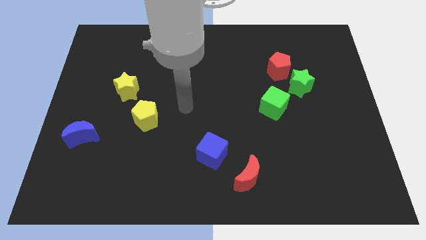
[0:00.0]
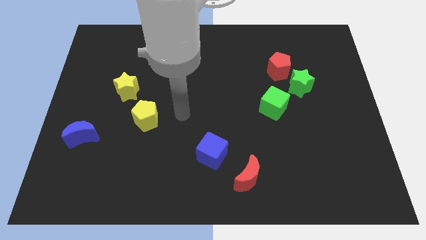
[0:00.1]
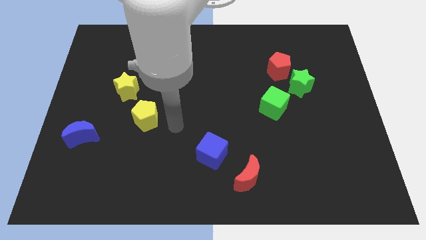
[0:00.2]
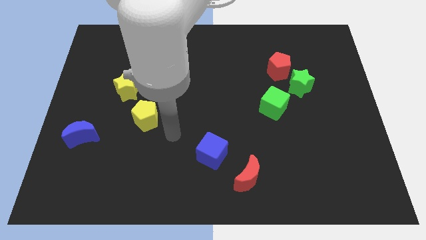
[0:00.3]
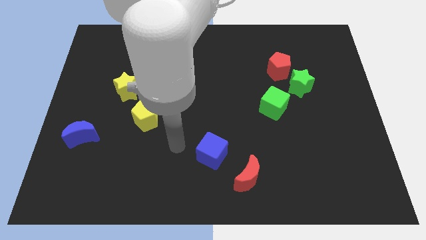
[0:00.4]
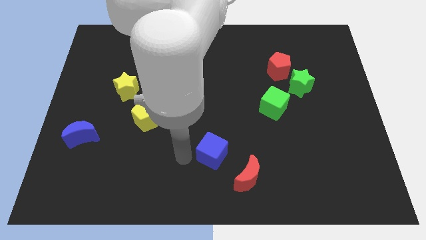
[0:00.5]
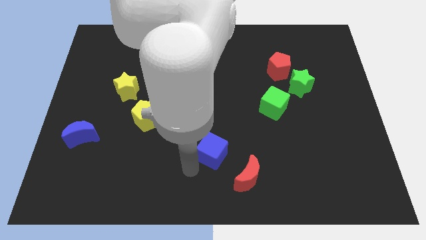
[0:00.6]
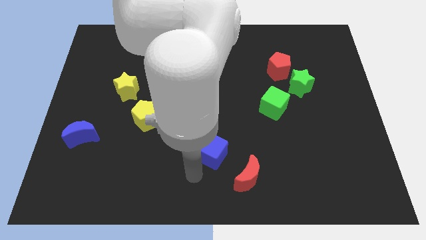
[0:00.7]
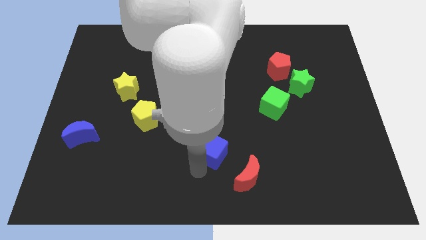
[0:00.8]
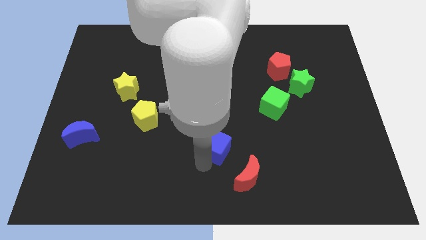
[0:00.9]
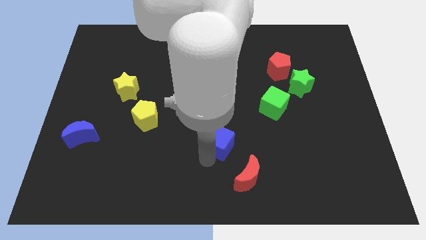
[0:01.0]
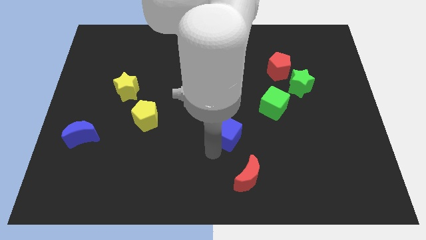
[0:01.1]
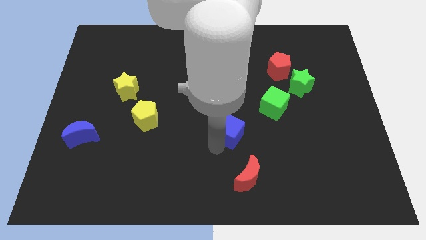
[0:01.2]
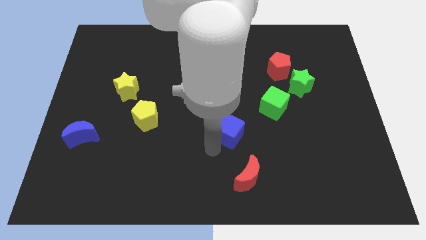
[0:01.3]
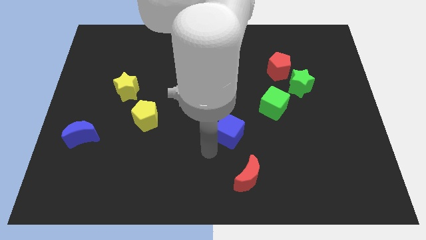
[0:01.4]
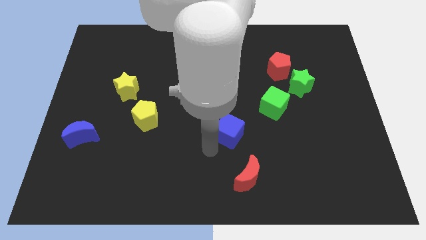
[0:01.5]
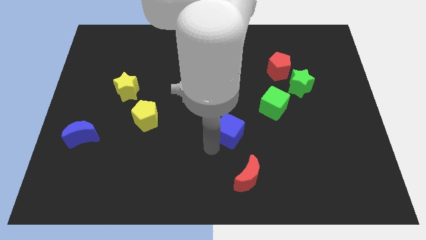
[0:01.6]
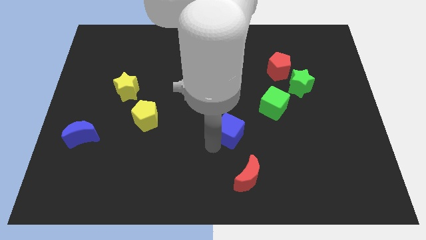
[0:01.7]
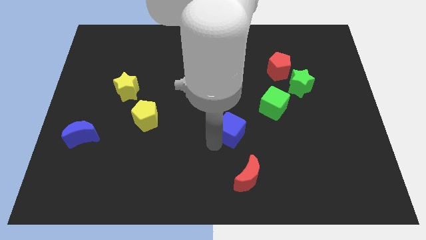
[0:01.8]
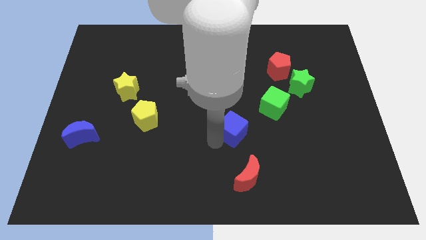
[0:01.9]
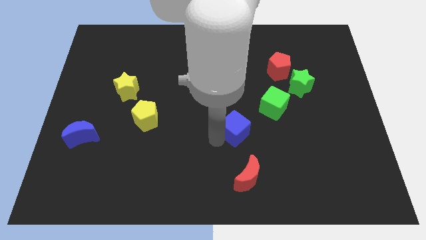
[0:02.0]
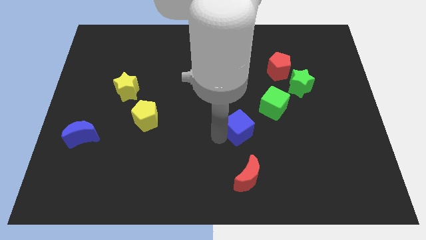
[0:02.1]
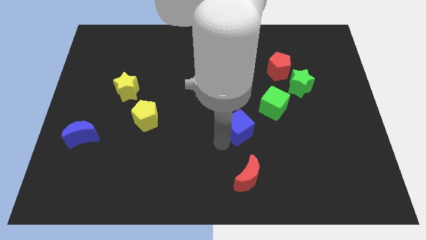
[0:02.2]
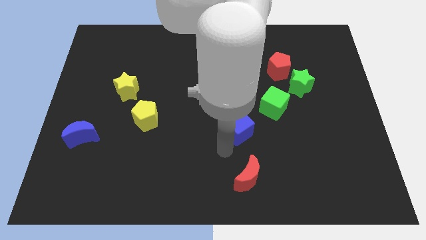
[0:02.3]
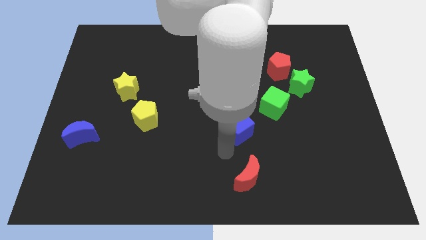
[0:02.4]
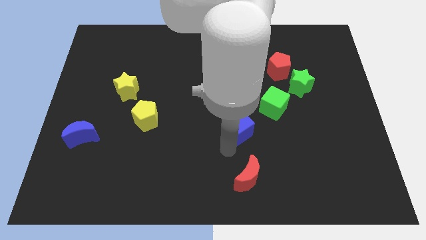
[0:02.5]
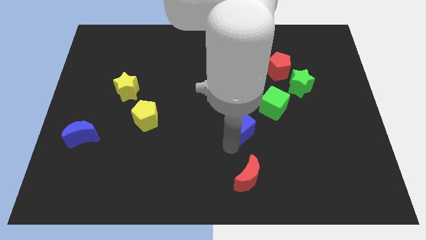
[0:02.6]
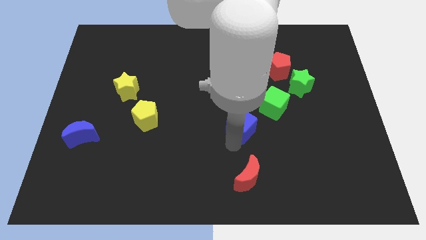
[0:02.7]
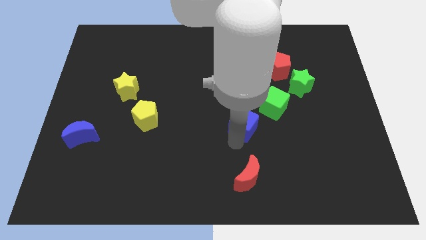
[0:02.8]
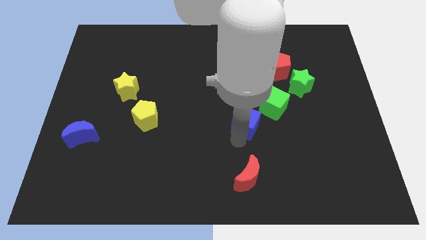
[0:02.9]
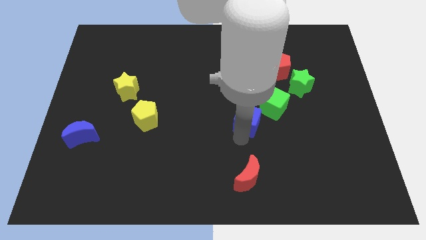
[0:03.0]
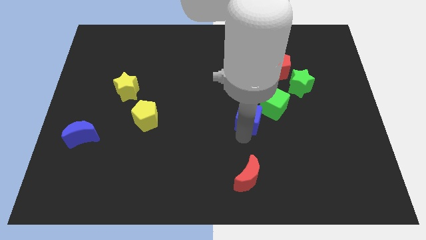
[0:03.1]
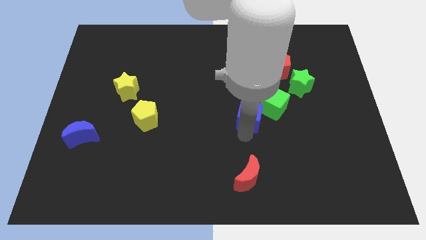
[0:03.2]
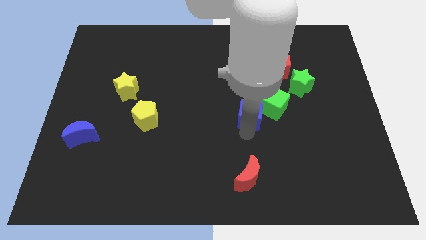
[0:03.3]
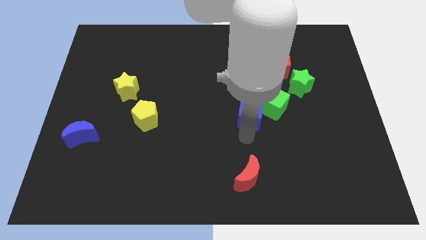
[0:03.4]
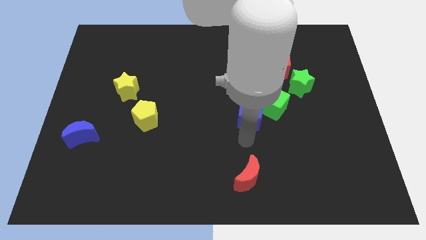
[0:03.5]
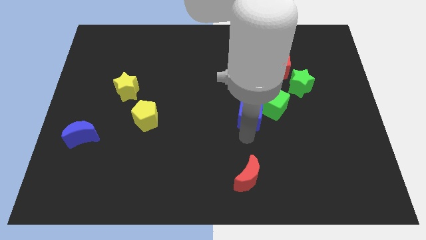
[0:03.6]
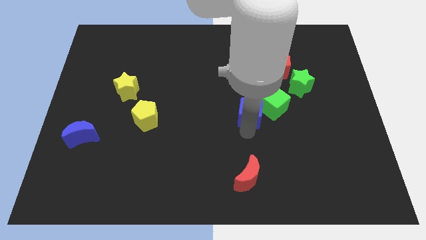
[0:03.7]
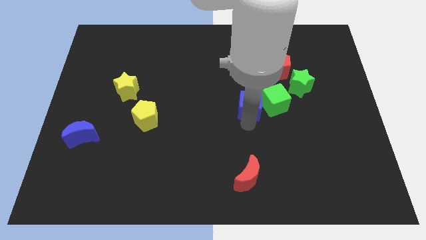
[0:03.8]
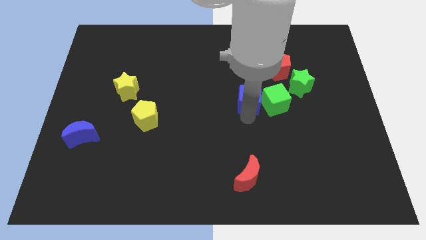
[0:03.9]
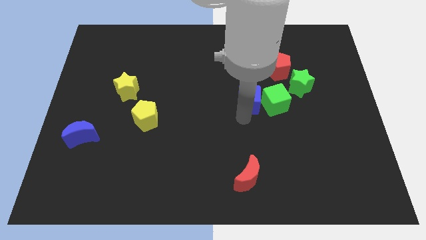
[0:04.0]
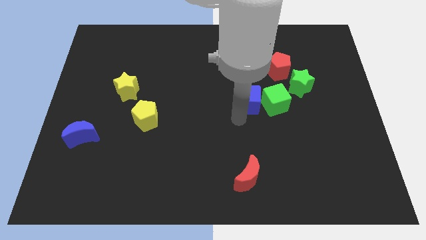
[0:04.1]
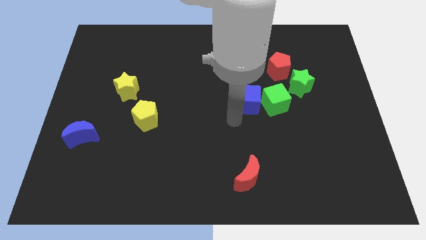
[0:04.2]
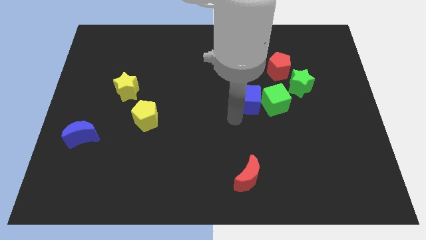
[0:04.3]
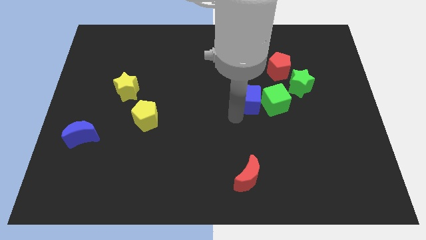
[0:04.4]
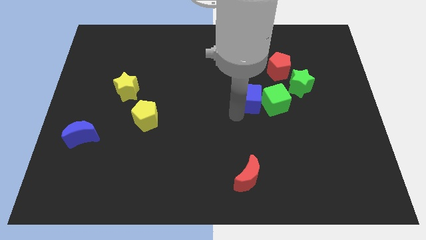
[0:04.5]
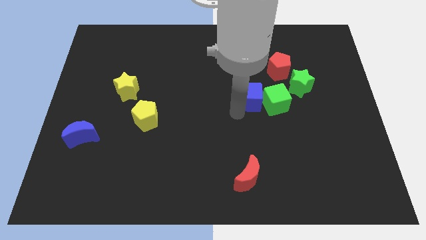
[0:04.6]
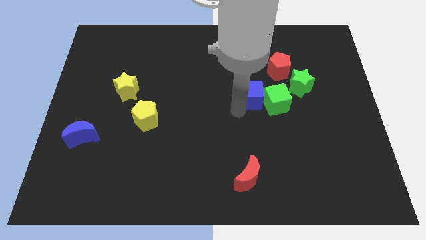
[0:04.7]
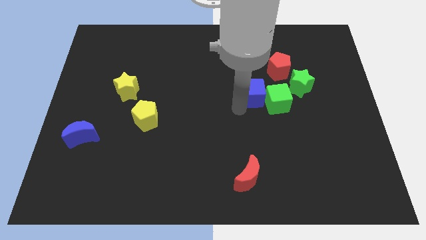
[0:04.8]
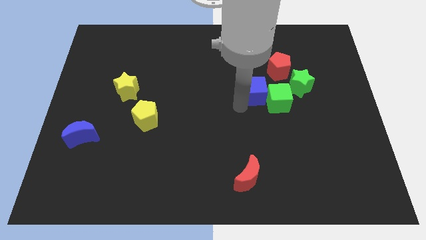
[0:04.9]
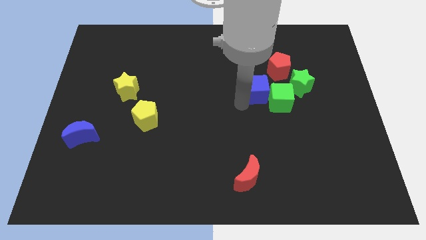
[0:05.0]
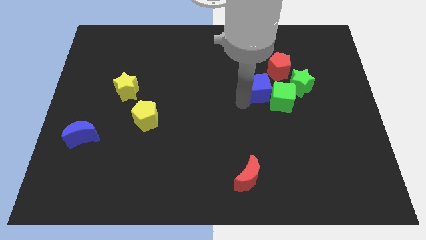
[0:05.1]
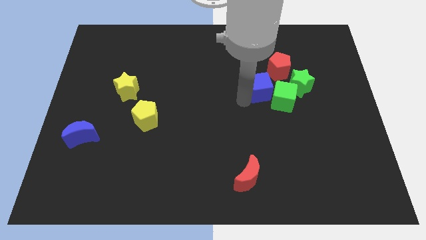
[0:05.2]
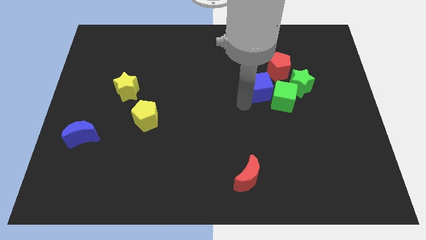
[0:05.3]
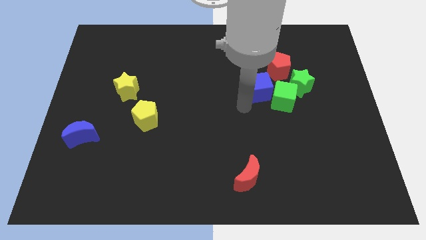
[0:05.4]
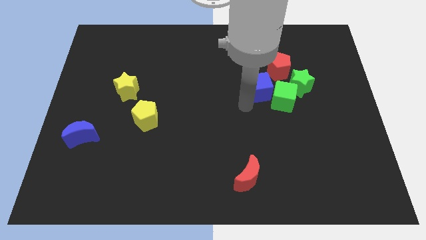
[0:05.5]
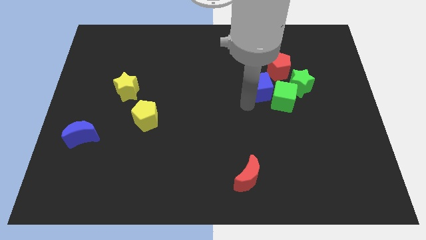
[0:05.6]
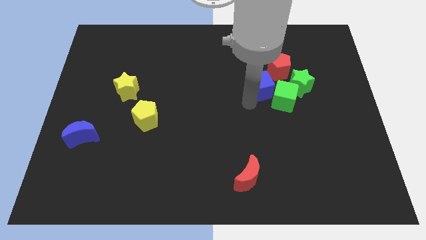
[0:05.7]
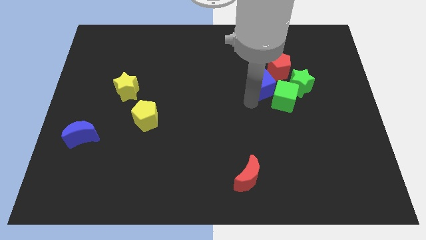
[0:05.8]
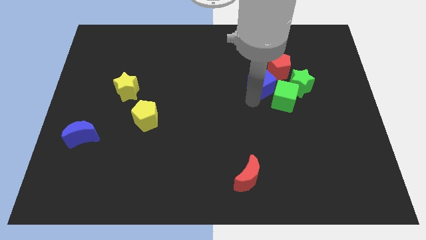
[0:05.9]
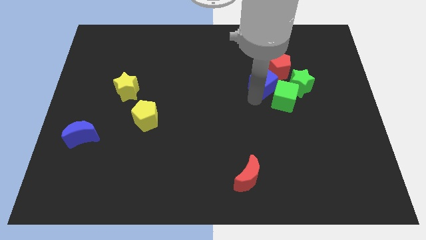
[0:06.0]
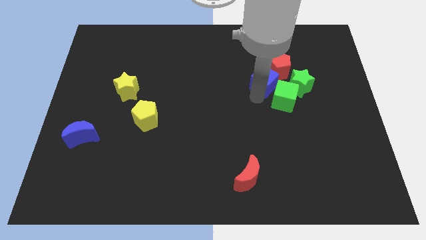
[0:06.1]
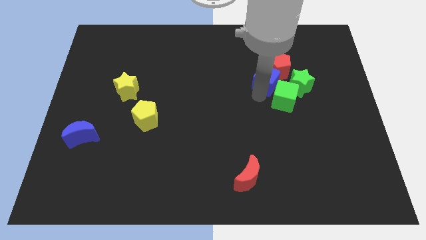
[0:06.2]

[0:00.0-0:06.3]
push the blue cube to the red pentagon
